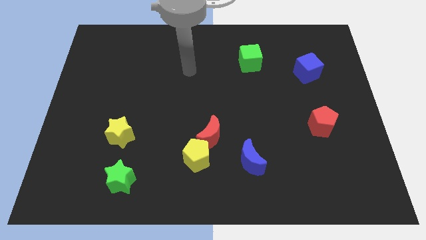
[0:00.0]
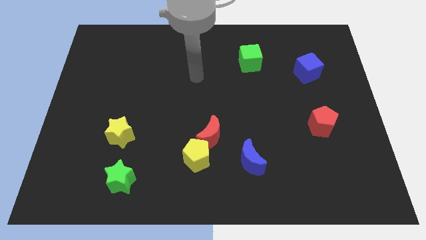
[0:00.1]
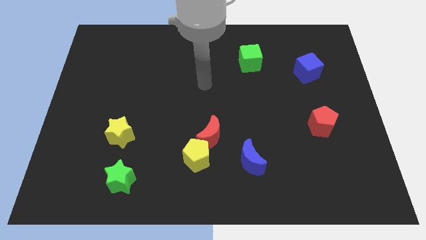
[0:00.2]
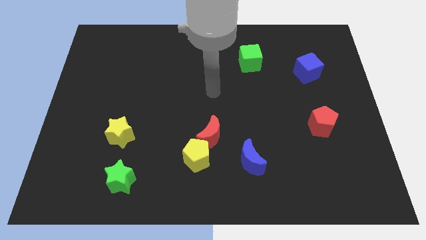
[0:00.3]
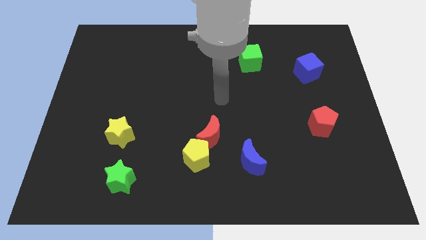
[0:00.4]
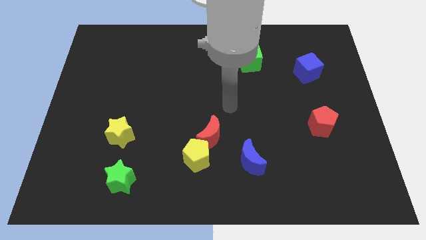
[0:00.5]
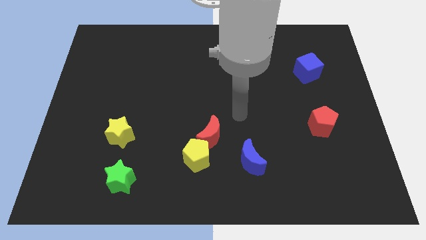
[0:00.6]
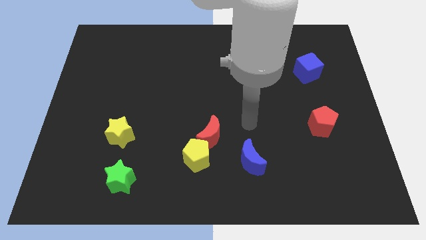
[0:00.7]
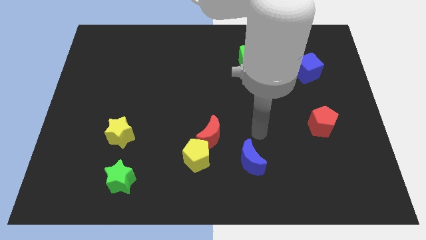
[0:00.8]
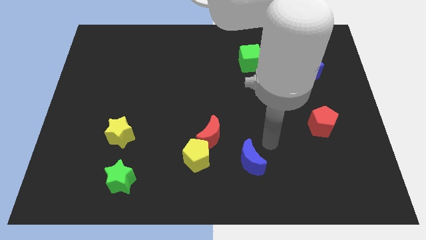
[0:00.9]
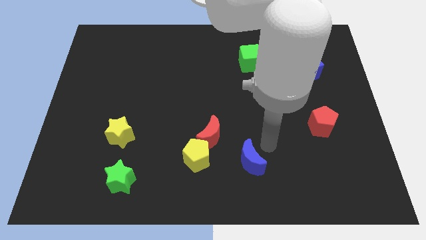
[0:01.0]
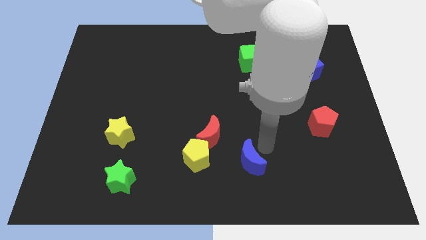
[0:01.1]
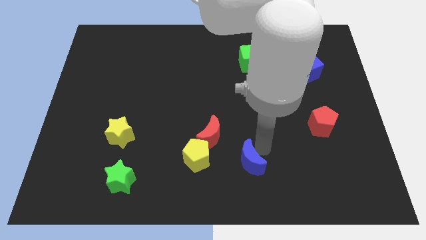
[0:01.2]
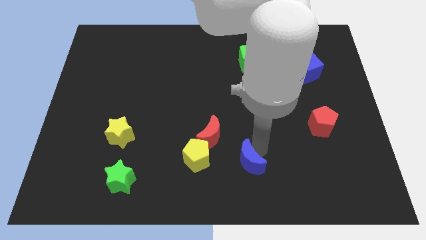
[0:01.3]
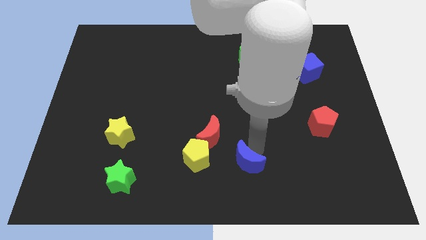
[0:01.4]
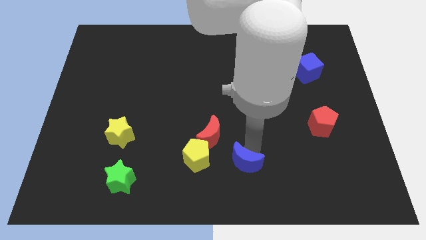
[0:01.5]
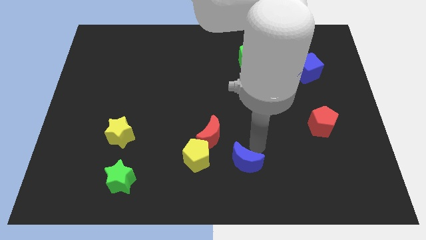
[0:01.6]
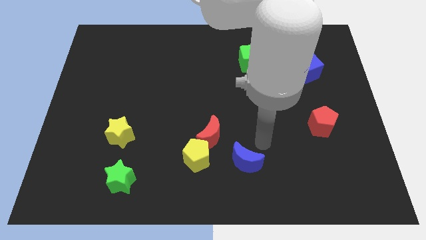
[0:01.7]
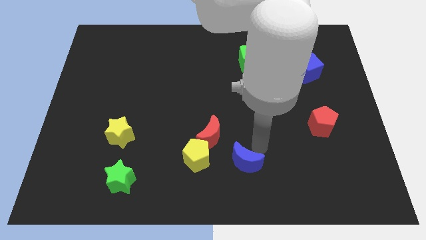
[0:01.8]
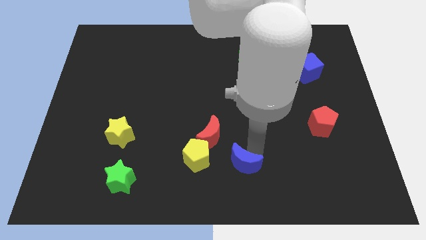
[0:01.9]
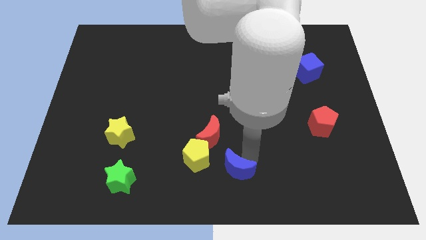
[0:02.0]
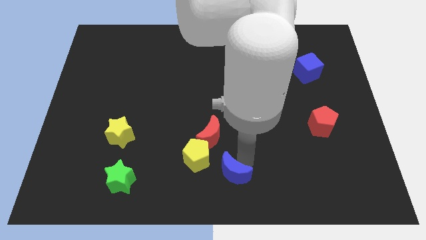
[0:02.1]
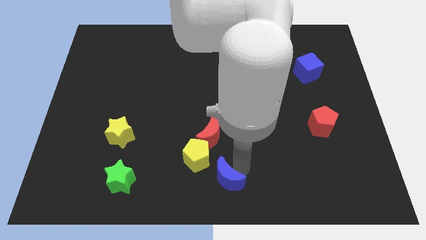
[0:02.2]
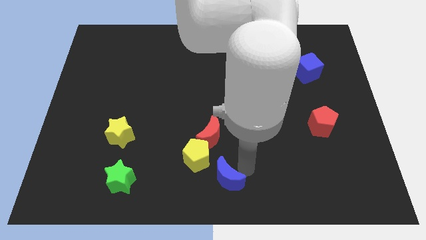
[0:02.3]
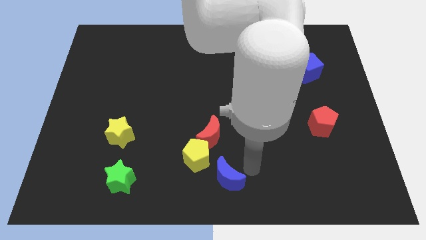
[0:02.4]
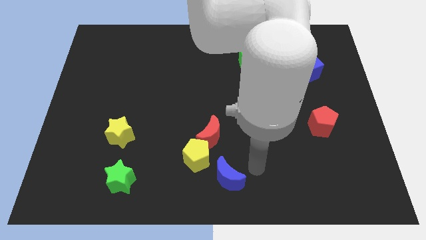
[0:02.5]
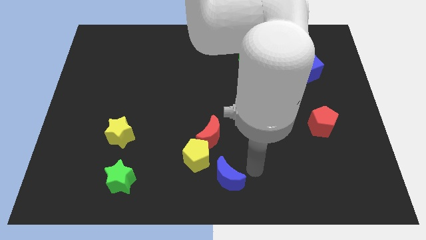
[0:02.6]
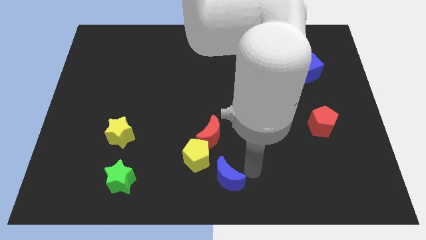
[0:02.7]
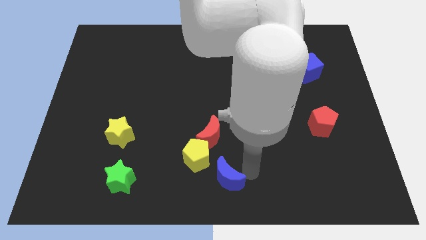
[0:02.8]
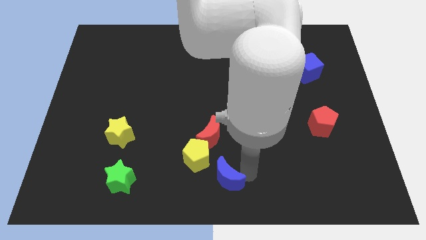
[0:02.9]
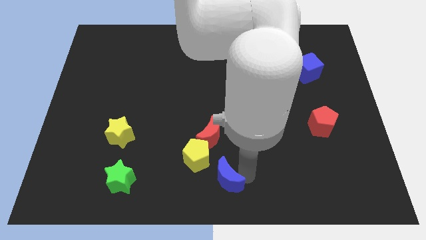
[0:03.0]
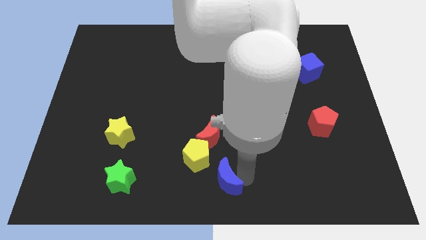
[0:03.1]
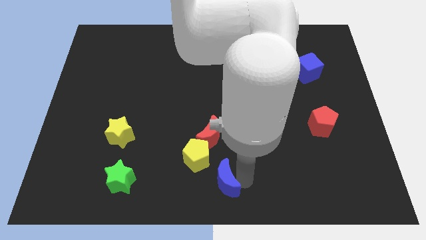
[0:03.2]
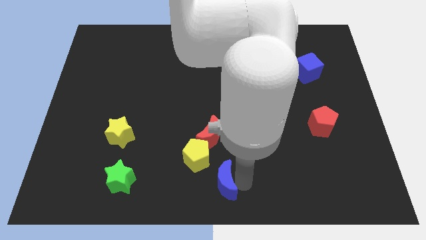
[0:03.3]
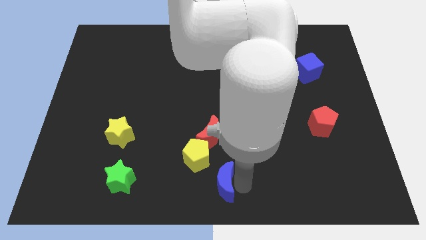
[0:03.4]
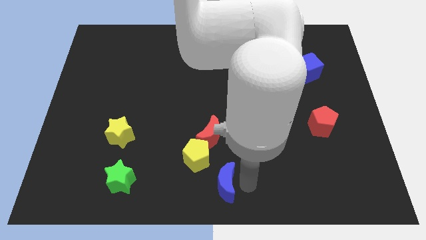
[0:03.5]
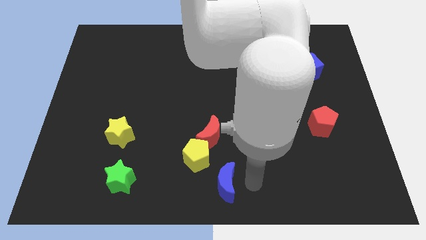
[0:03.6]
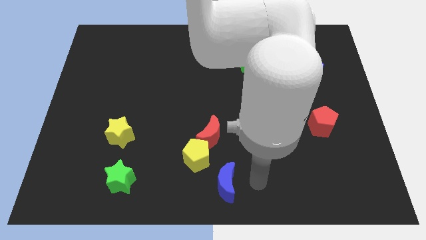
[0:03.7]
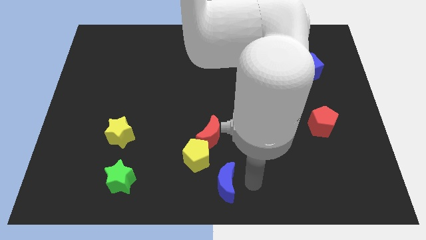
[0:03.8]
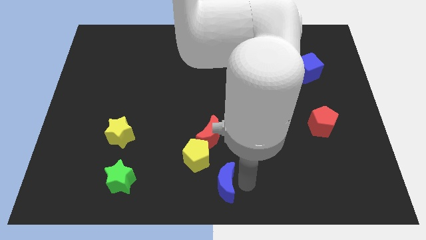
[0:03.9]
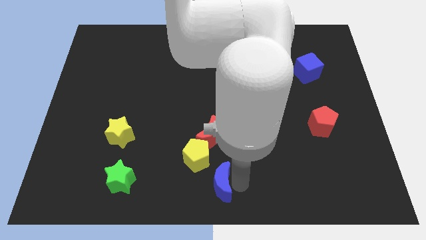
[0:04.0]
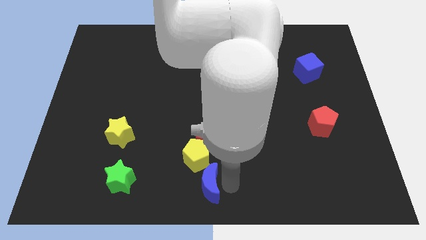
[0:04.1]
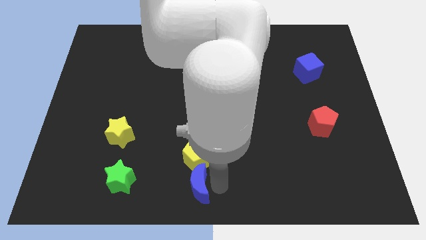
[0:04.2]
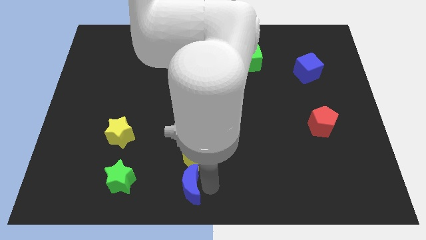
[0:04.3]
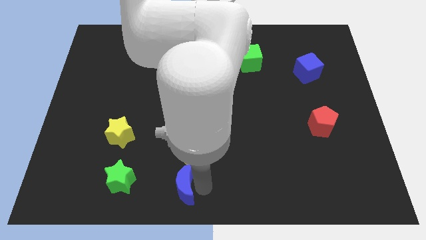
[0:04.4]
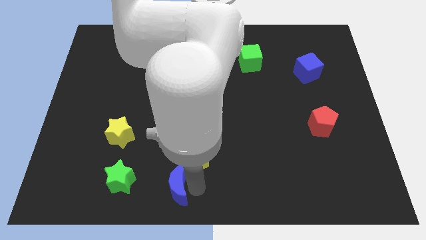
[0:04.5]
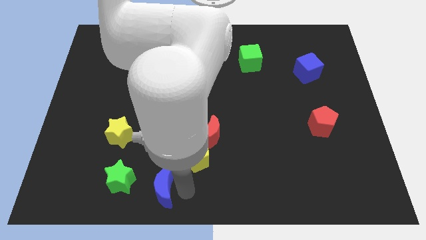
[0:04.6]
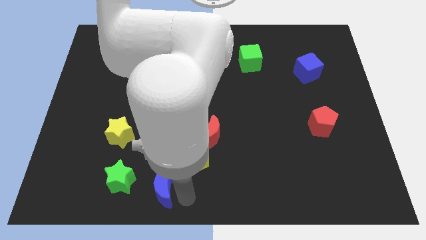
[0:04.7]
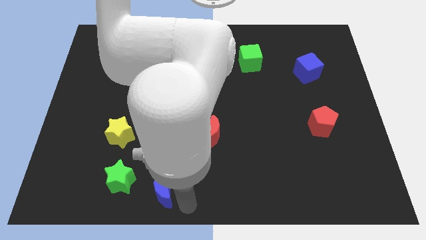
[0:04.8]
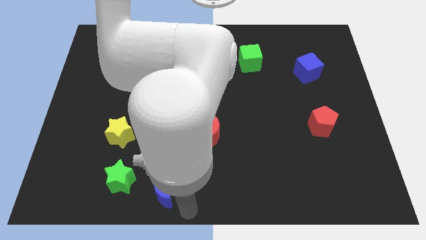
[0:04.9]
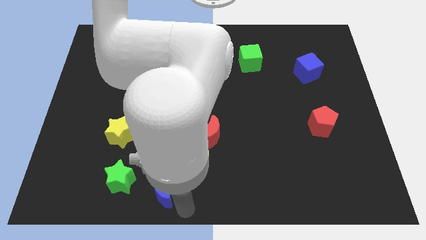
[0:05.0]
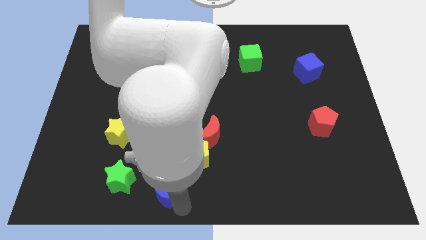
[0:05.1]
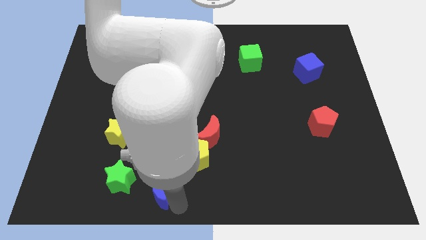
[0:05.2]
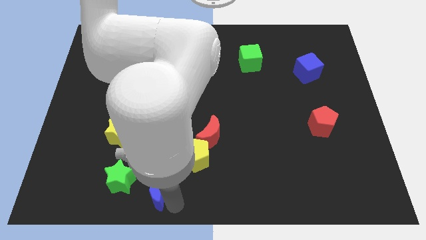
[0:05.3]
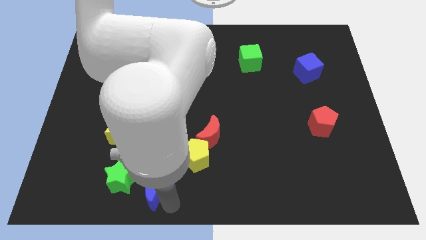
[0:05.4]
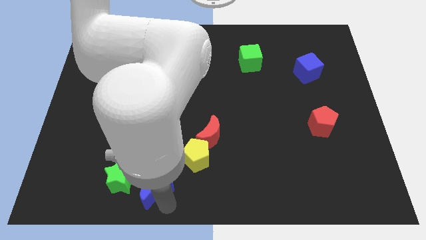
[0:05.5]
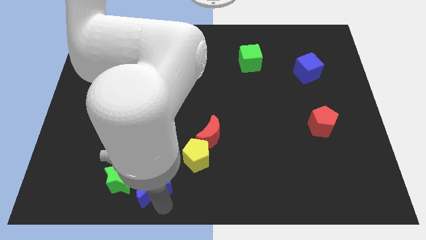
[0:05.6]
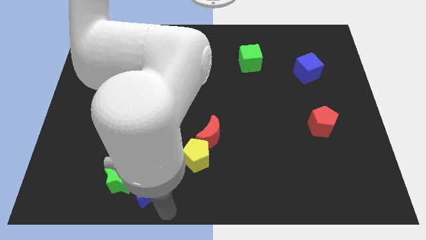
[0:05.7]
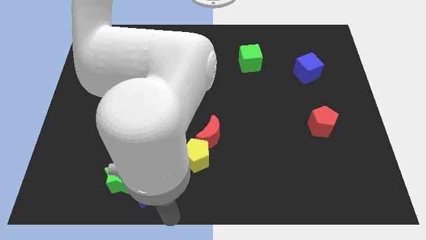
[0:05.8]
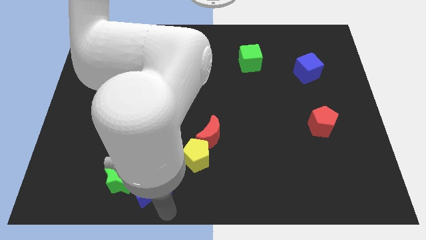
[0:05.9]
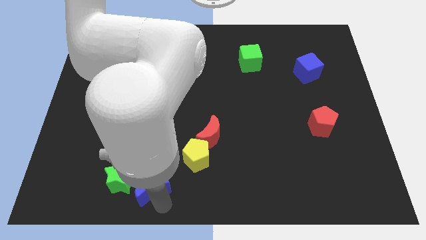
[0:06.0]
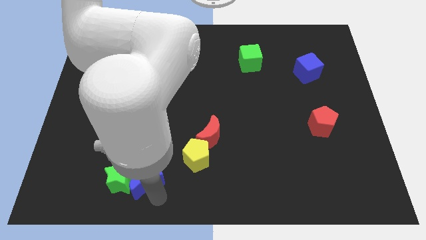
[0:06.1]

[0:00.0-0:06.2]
push the blue moon left

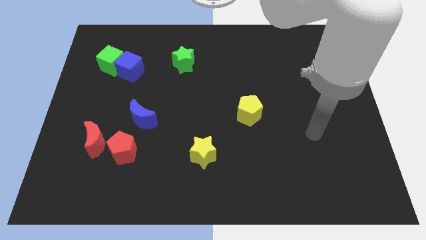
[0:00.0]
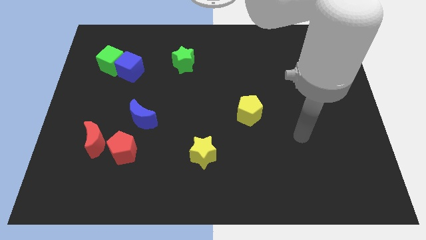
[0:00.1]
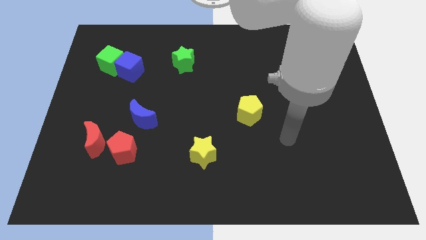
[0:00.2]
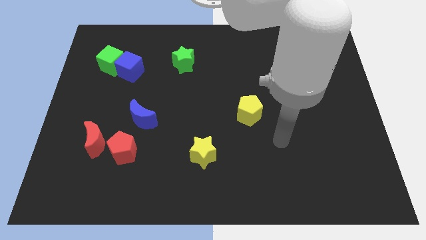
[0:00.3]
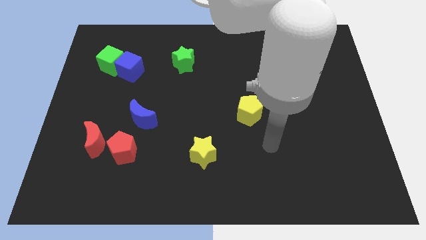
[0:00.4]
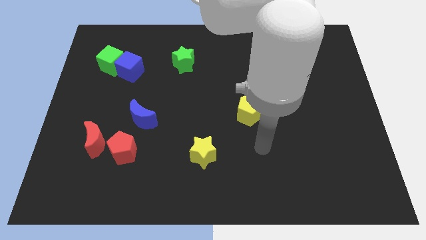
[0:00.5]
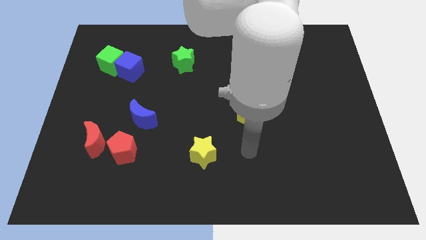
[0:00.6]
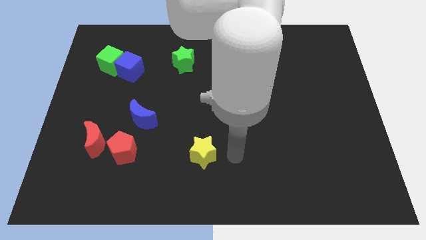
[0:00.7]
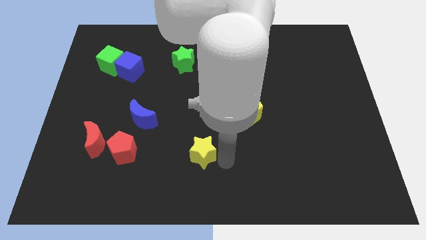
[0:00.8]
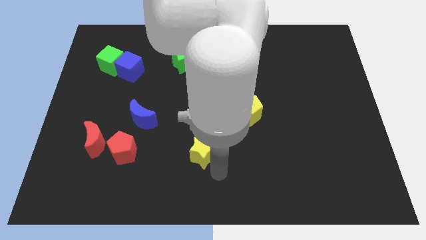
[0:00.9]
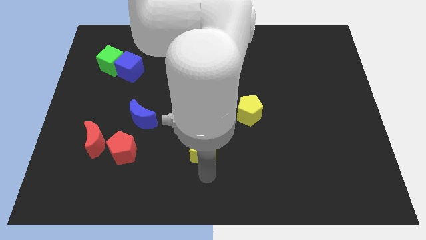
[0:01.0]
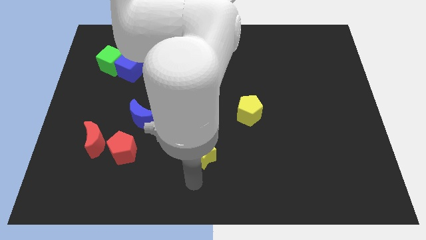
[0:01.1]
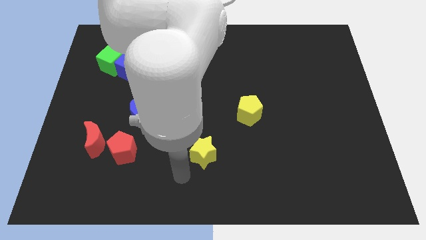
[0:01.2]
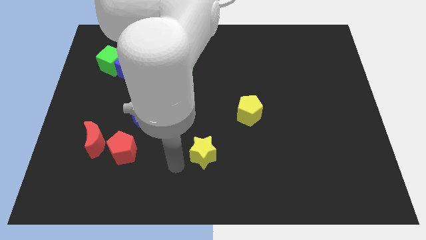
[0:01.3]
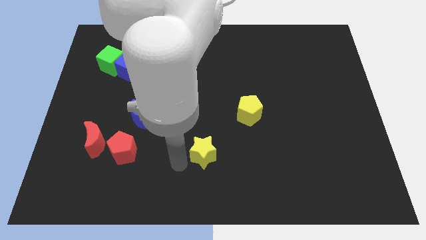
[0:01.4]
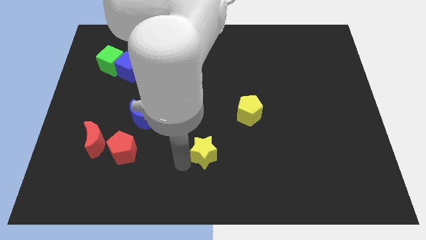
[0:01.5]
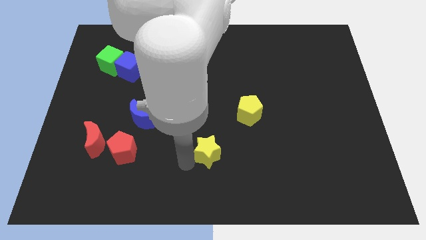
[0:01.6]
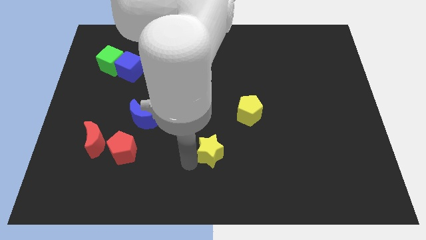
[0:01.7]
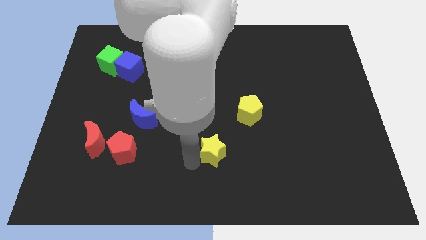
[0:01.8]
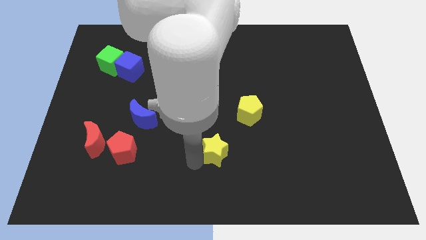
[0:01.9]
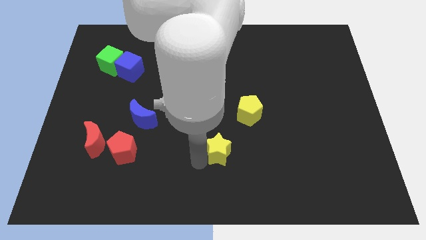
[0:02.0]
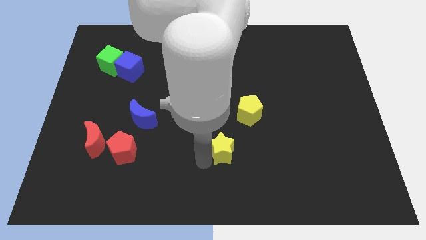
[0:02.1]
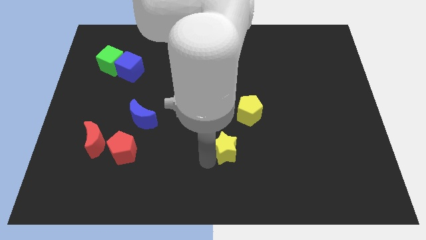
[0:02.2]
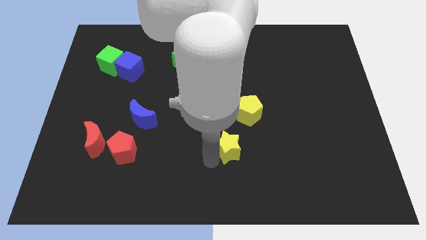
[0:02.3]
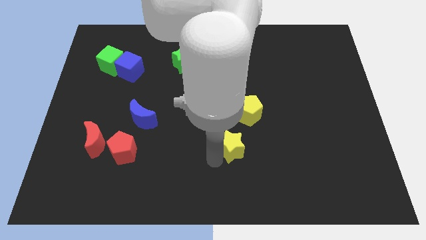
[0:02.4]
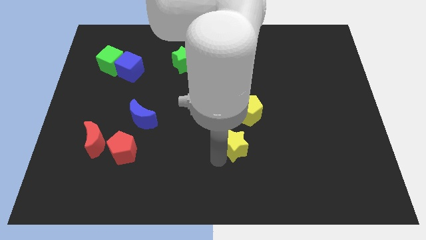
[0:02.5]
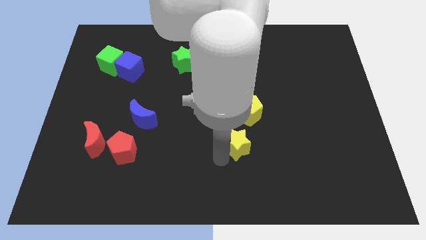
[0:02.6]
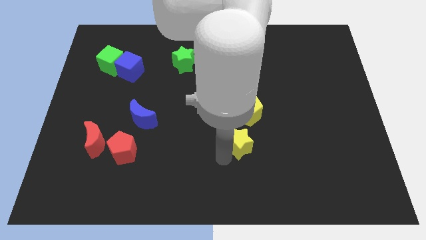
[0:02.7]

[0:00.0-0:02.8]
push the yellow star slightly diagonally upwards and right
